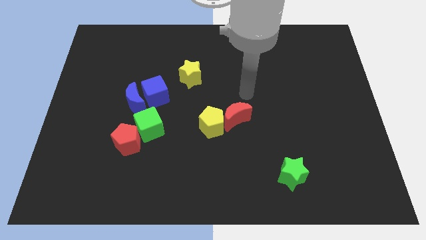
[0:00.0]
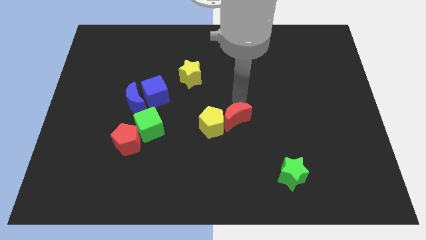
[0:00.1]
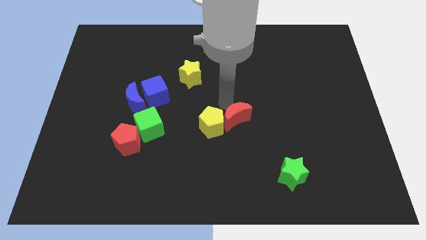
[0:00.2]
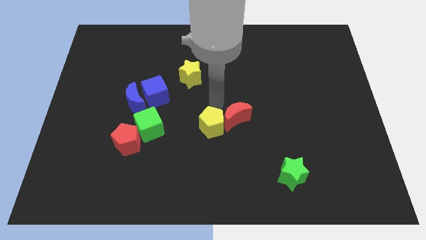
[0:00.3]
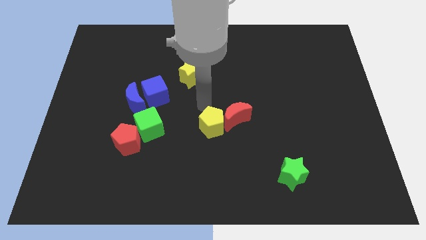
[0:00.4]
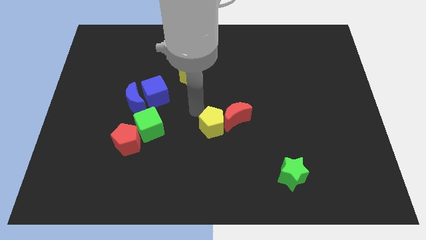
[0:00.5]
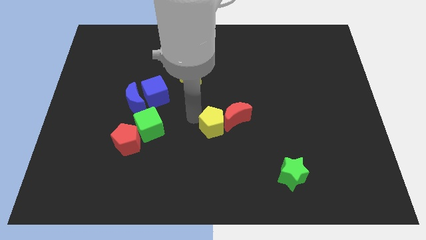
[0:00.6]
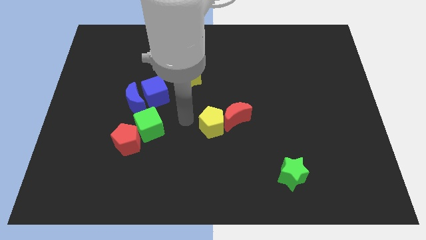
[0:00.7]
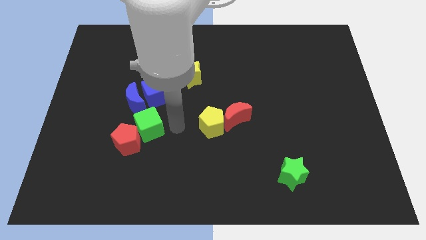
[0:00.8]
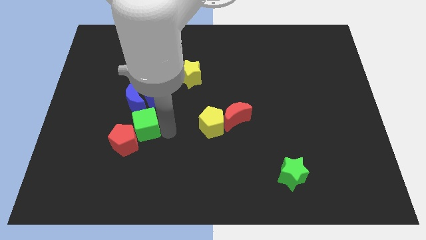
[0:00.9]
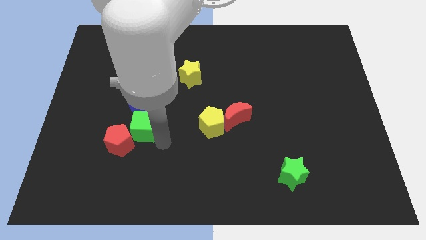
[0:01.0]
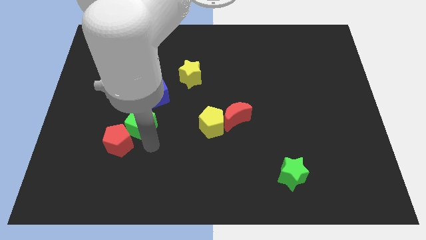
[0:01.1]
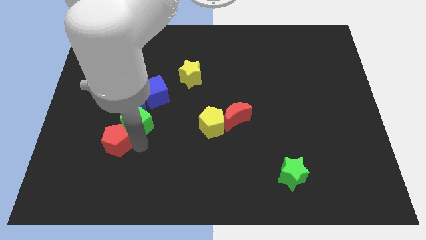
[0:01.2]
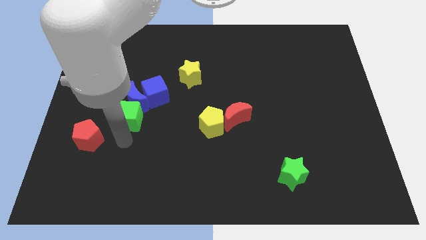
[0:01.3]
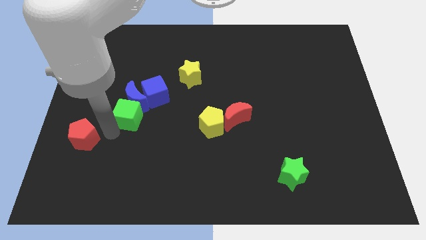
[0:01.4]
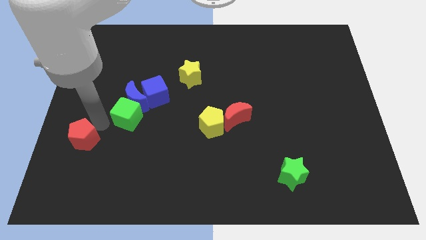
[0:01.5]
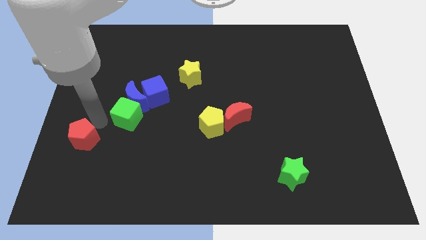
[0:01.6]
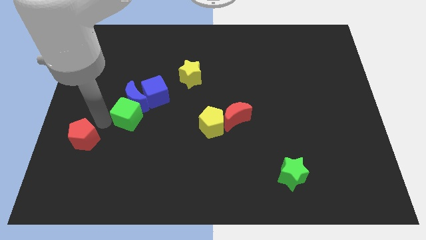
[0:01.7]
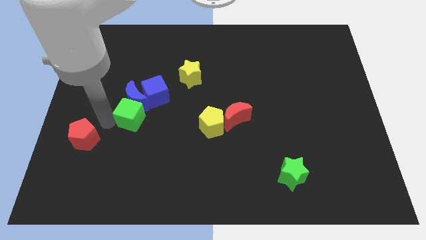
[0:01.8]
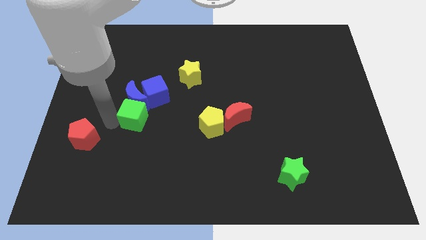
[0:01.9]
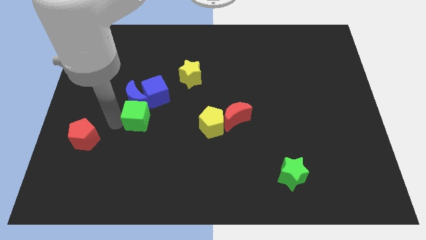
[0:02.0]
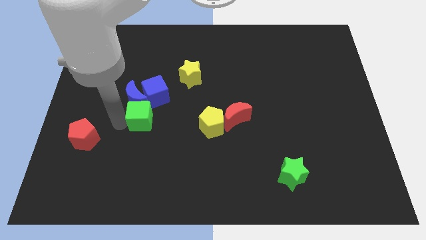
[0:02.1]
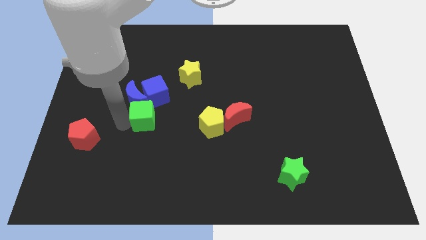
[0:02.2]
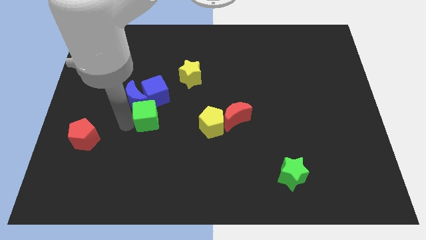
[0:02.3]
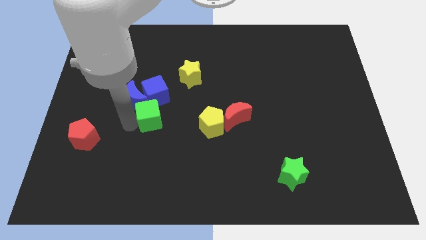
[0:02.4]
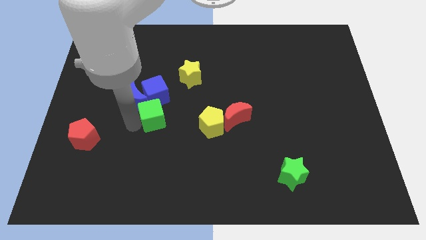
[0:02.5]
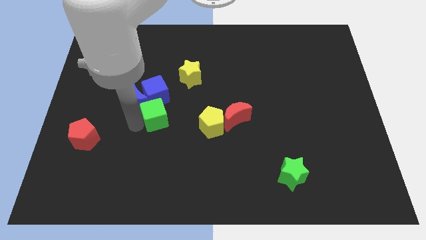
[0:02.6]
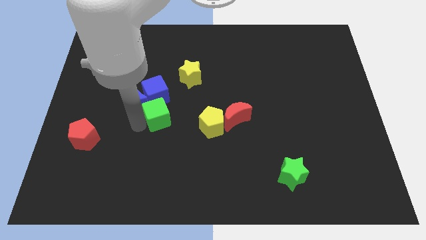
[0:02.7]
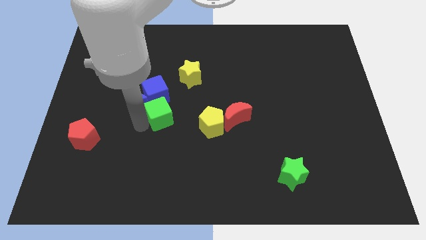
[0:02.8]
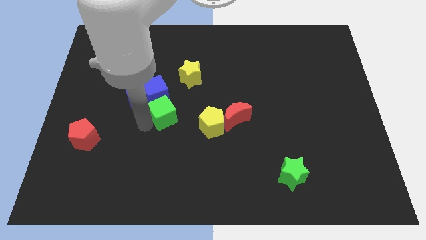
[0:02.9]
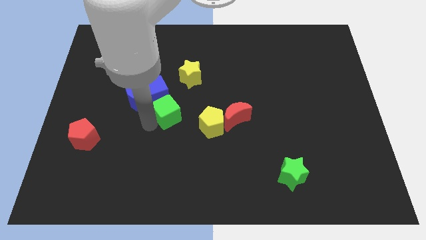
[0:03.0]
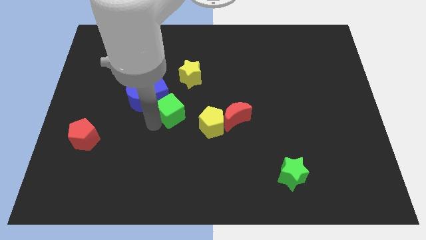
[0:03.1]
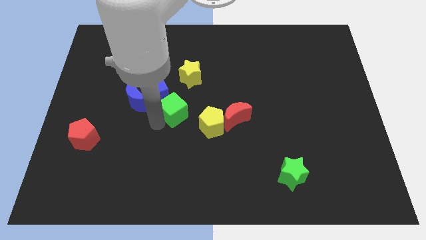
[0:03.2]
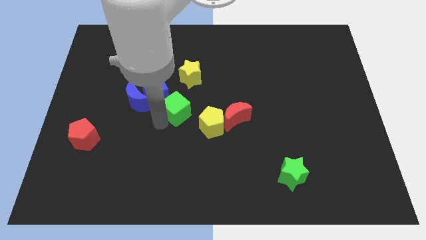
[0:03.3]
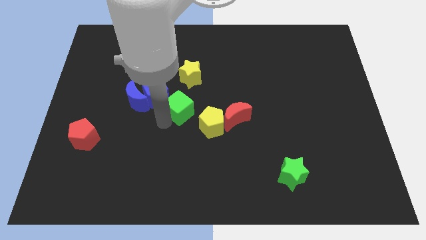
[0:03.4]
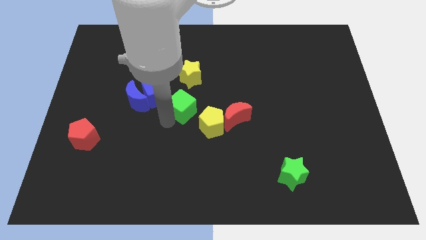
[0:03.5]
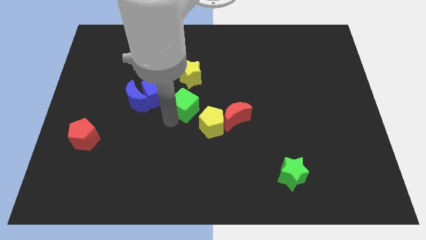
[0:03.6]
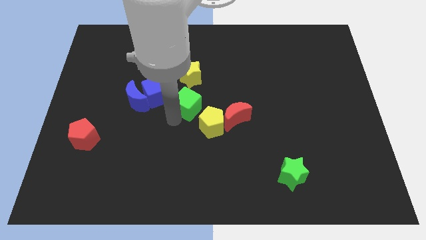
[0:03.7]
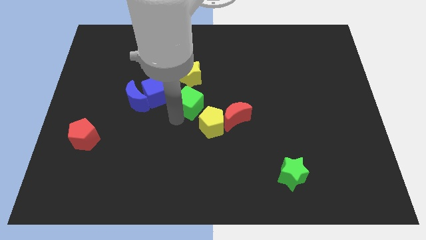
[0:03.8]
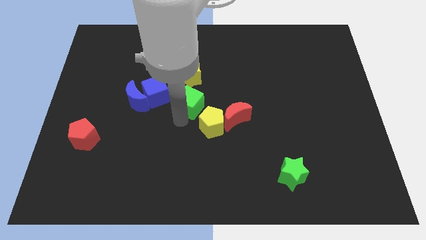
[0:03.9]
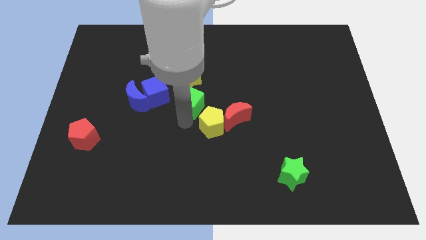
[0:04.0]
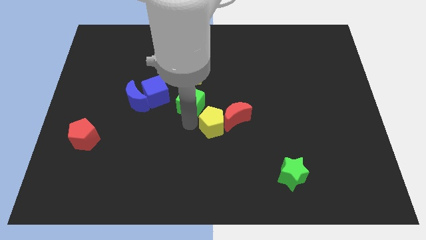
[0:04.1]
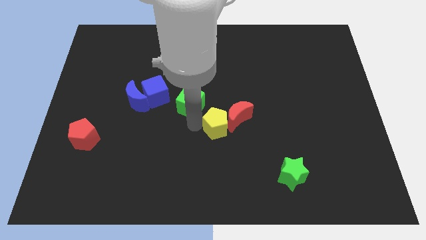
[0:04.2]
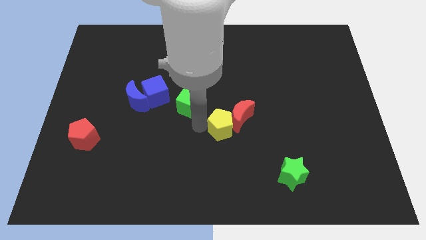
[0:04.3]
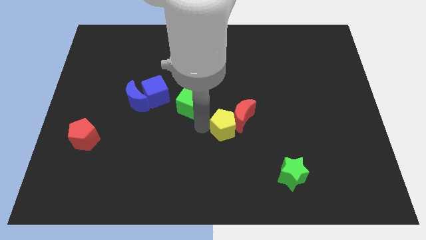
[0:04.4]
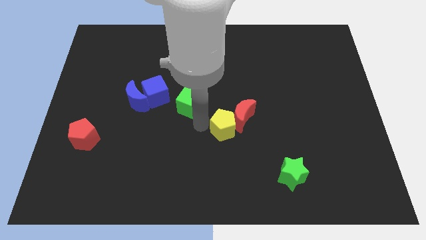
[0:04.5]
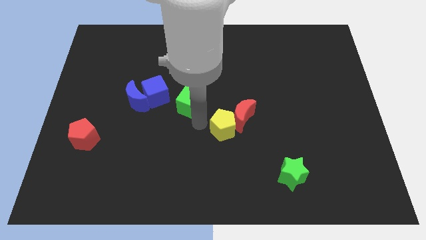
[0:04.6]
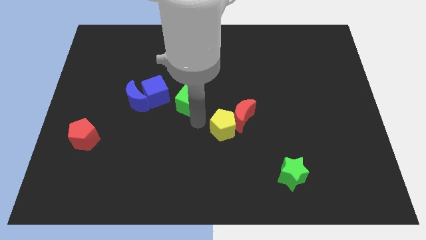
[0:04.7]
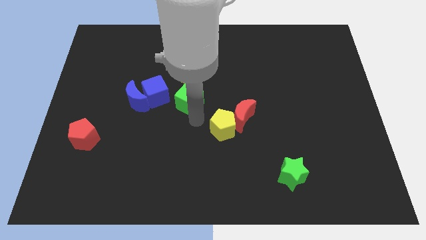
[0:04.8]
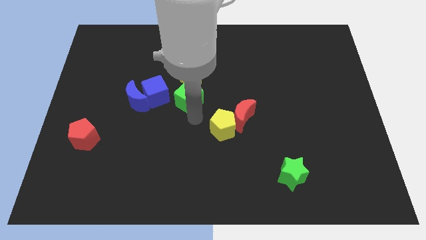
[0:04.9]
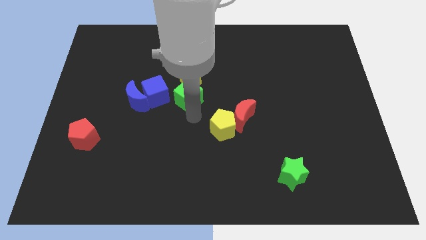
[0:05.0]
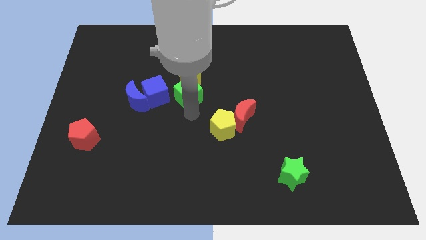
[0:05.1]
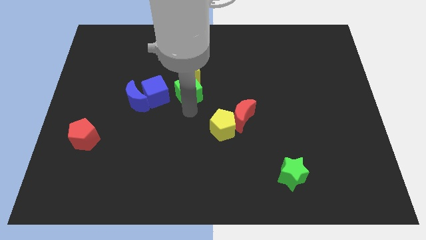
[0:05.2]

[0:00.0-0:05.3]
push the green cube up somewhat

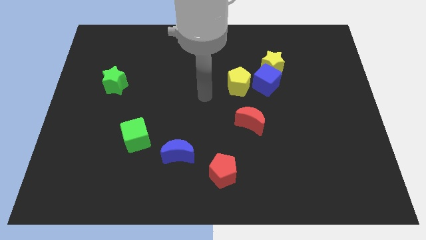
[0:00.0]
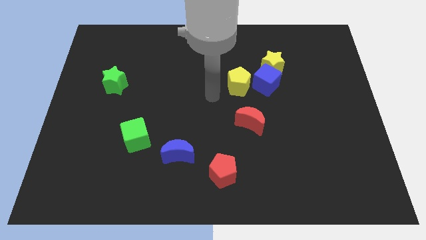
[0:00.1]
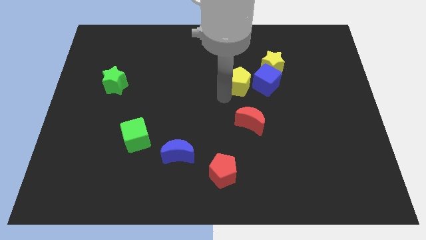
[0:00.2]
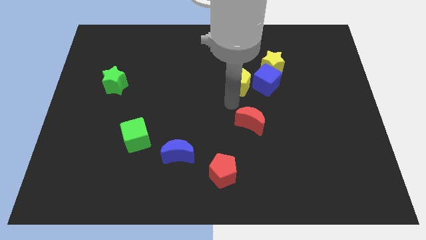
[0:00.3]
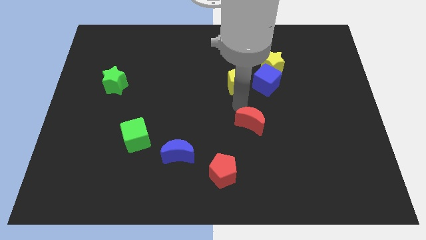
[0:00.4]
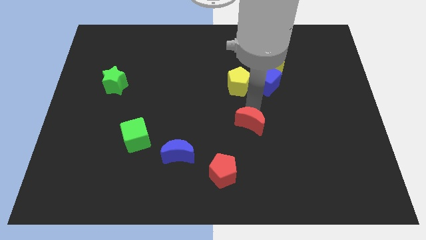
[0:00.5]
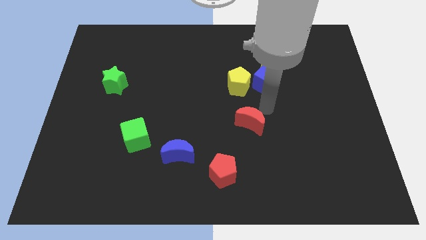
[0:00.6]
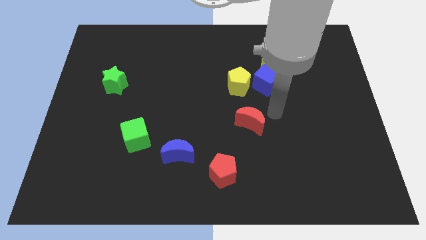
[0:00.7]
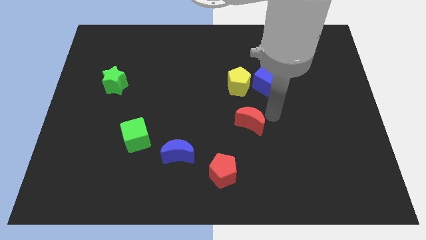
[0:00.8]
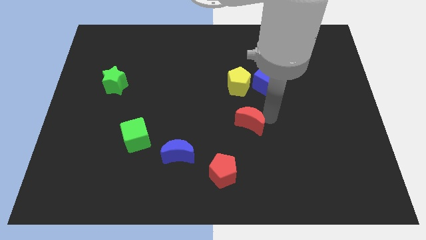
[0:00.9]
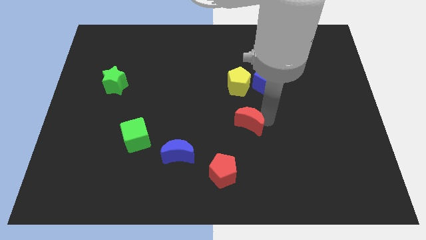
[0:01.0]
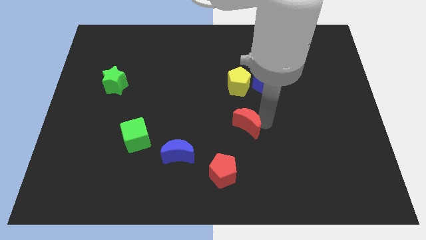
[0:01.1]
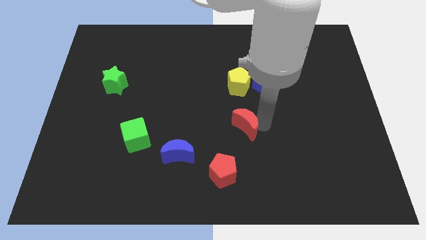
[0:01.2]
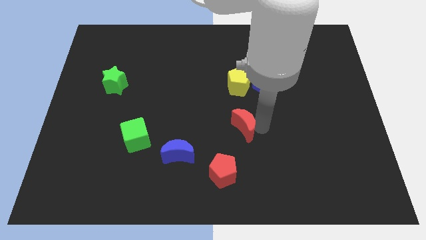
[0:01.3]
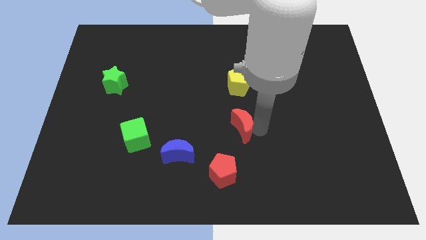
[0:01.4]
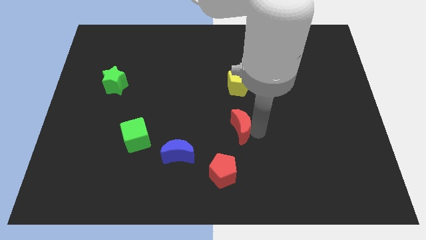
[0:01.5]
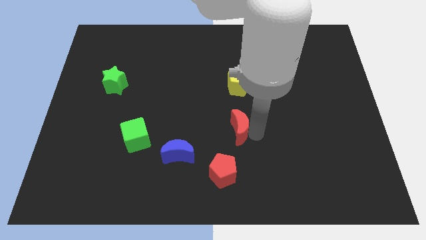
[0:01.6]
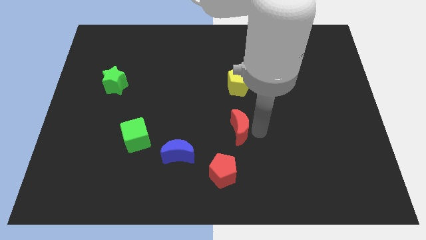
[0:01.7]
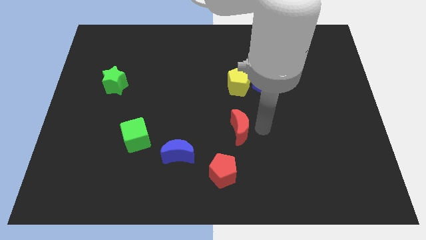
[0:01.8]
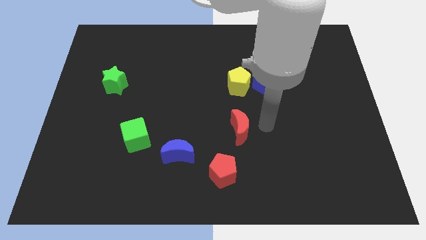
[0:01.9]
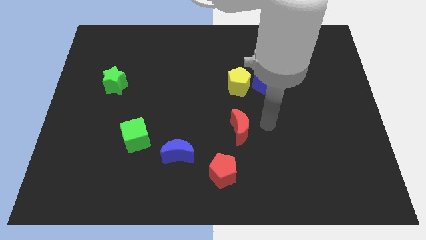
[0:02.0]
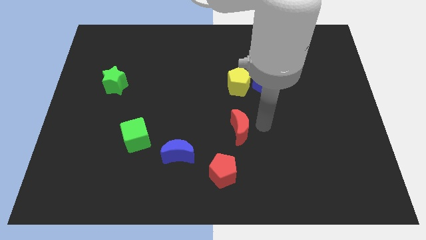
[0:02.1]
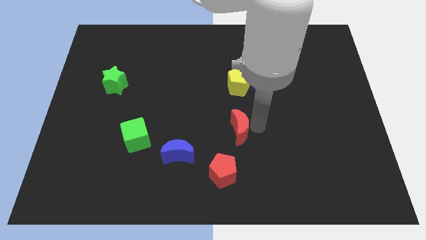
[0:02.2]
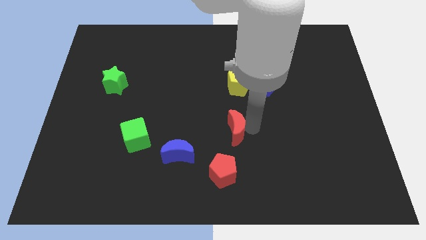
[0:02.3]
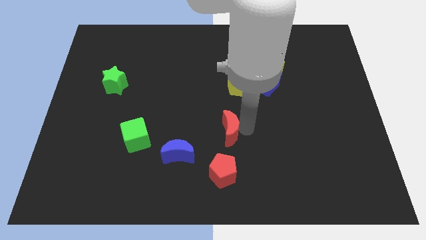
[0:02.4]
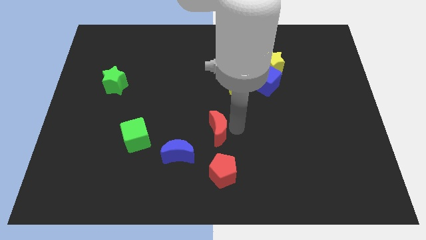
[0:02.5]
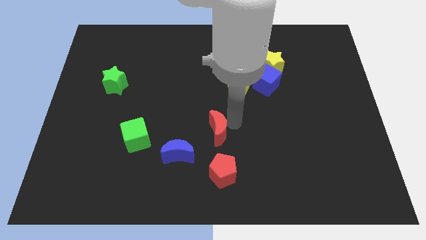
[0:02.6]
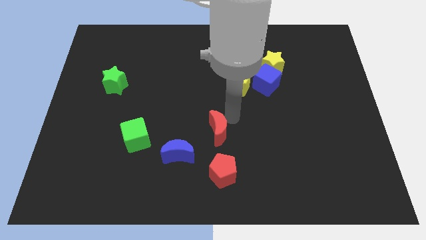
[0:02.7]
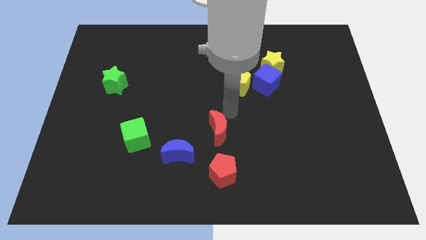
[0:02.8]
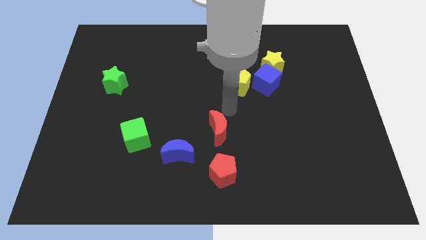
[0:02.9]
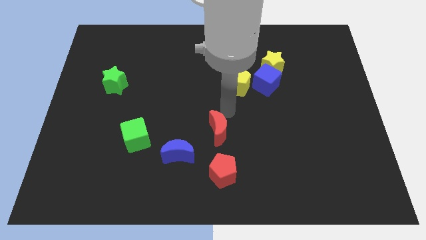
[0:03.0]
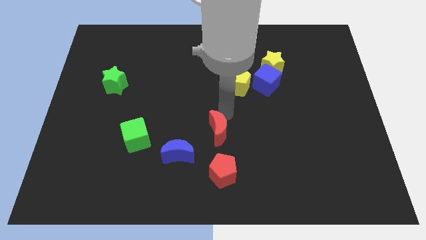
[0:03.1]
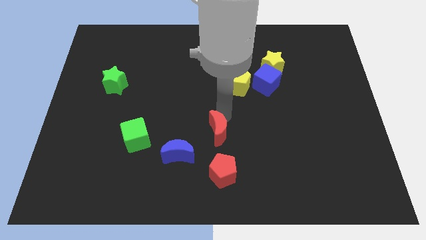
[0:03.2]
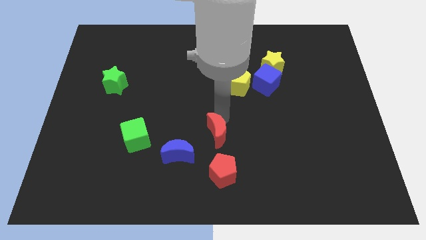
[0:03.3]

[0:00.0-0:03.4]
move the red moon slightly down and left diagonally
